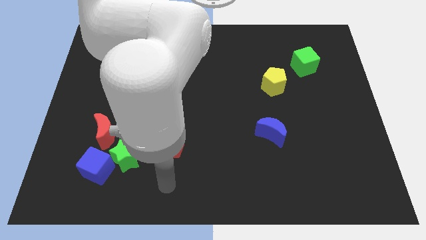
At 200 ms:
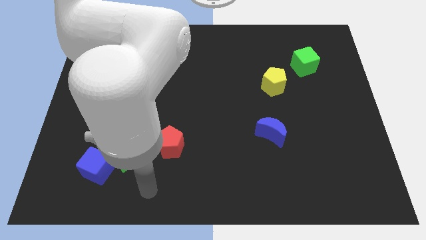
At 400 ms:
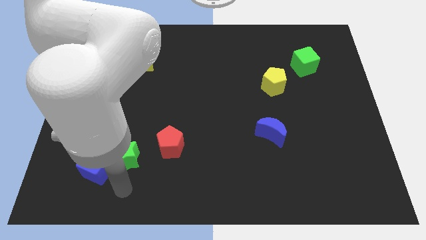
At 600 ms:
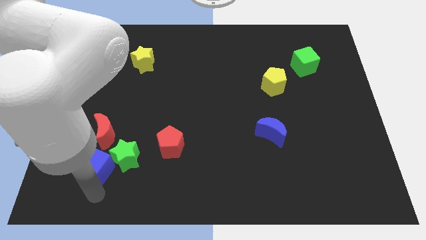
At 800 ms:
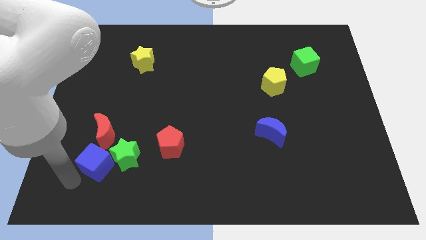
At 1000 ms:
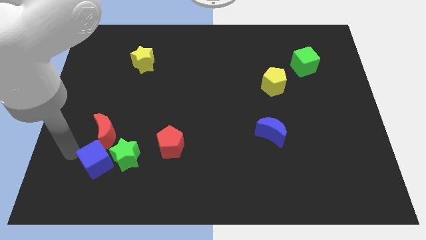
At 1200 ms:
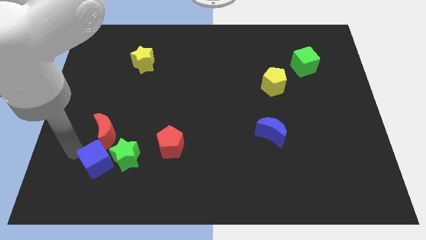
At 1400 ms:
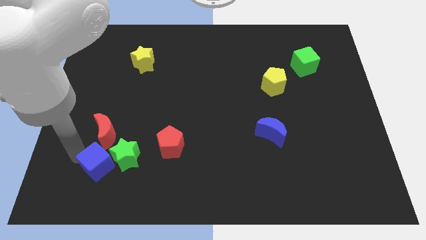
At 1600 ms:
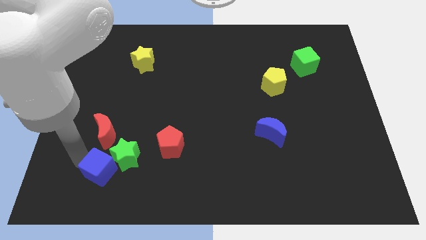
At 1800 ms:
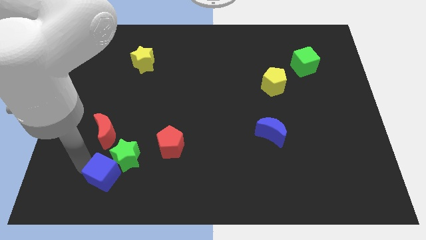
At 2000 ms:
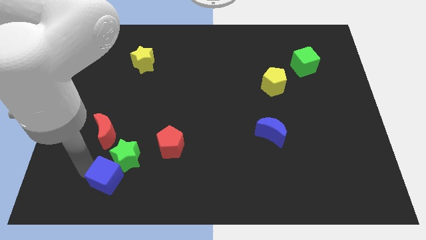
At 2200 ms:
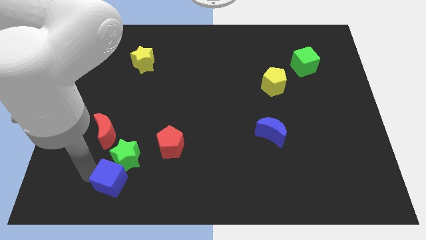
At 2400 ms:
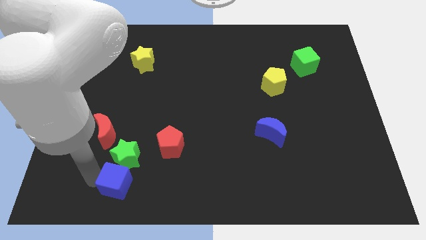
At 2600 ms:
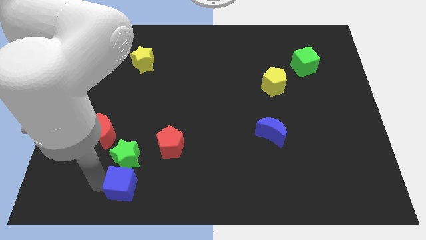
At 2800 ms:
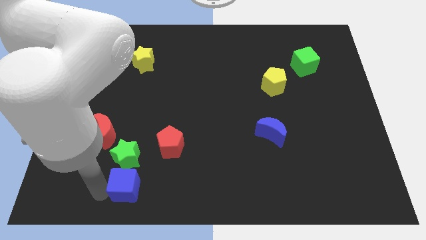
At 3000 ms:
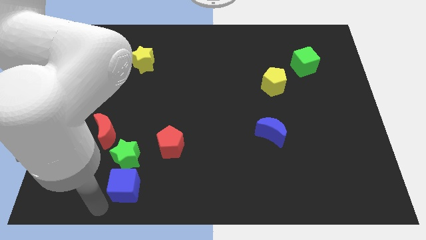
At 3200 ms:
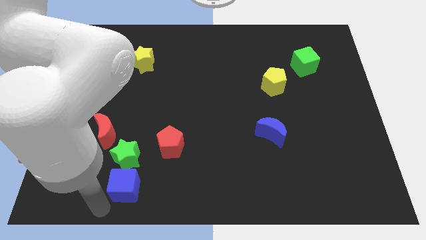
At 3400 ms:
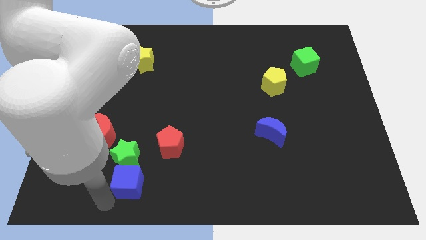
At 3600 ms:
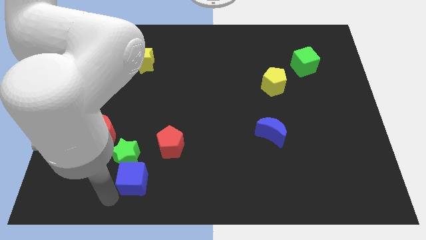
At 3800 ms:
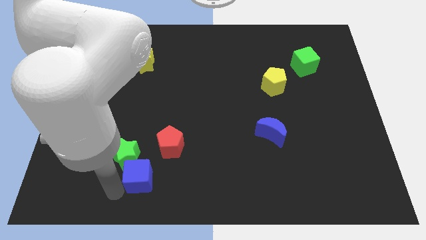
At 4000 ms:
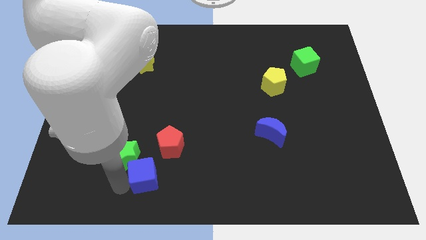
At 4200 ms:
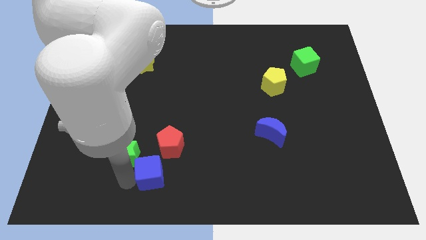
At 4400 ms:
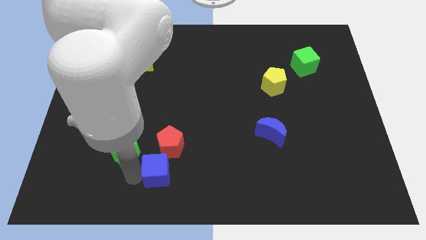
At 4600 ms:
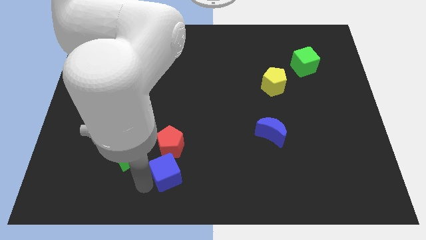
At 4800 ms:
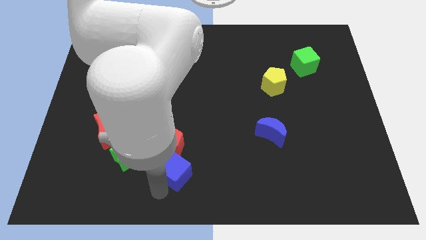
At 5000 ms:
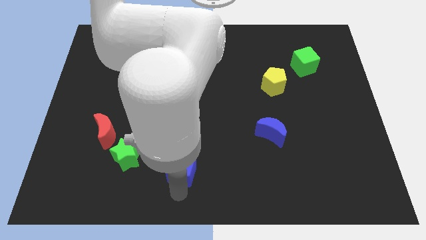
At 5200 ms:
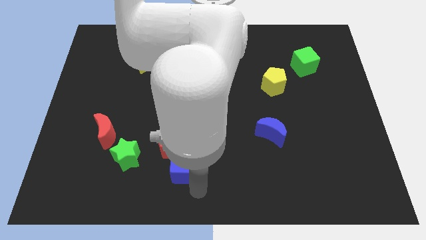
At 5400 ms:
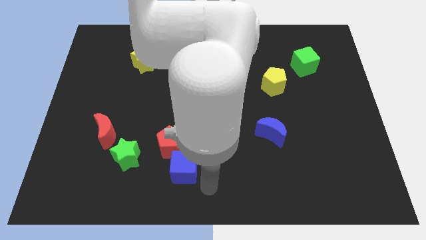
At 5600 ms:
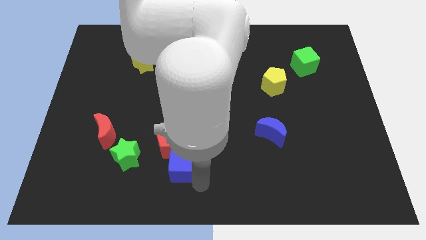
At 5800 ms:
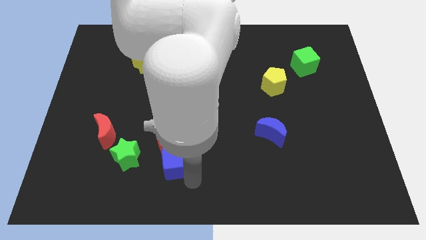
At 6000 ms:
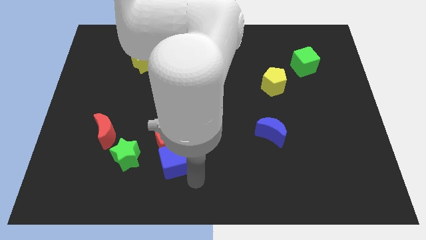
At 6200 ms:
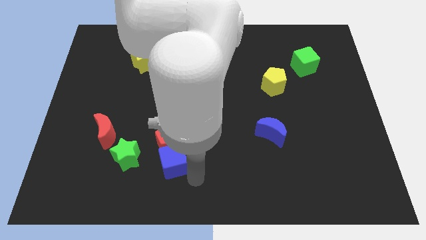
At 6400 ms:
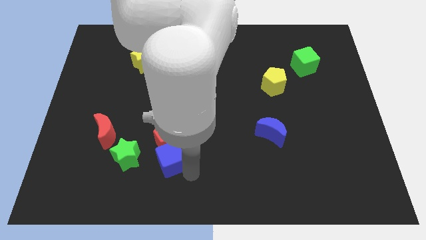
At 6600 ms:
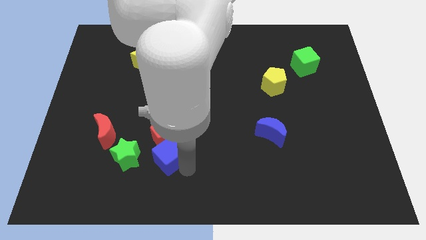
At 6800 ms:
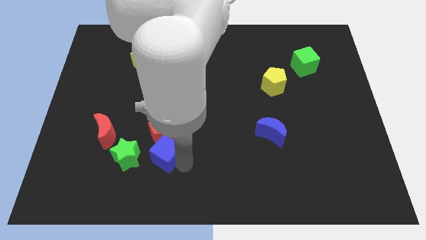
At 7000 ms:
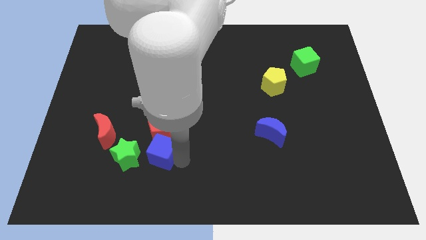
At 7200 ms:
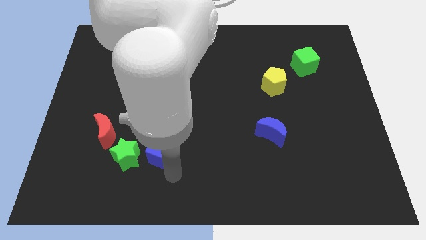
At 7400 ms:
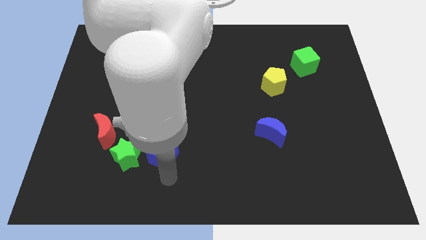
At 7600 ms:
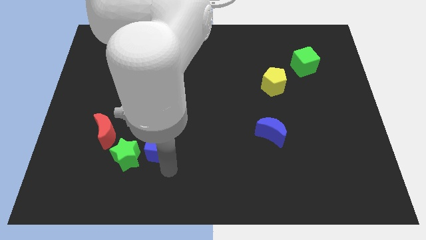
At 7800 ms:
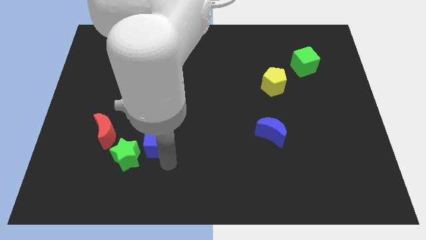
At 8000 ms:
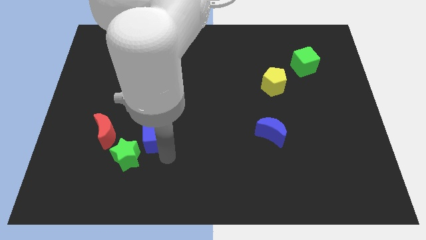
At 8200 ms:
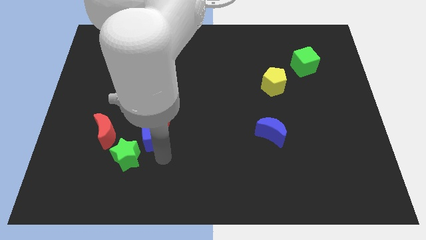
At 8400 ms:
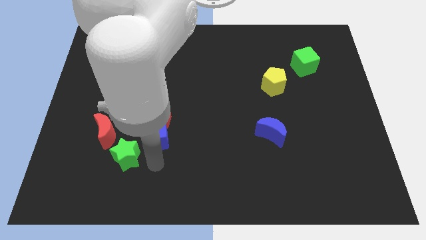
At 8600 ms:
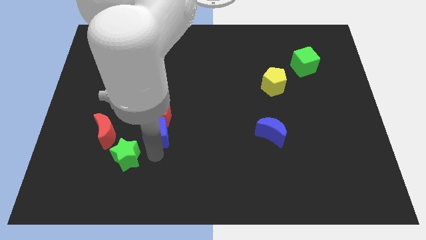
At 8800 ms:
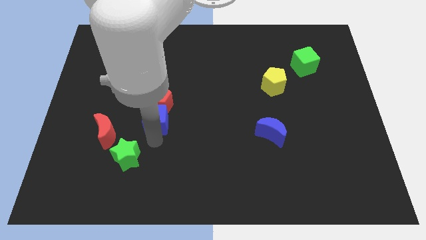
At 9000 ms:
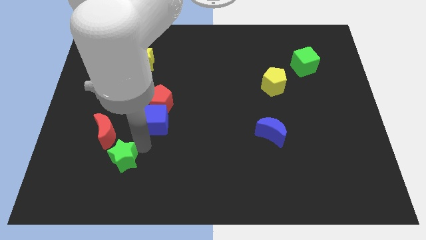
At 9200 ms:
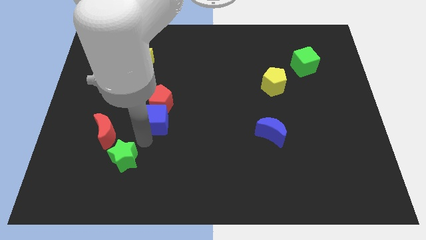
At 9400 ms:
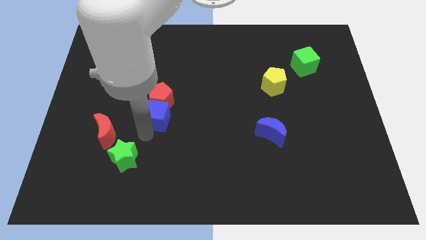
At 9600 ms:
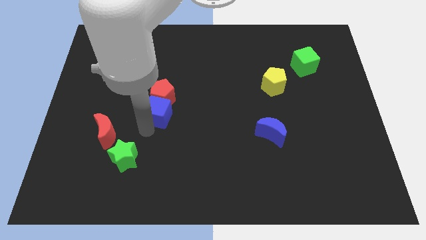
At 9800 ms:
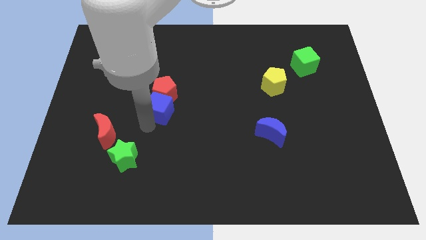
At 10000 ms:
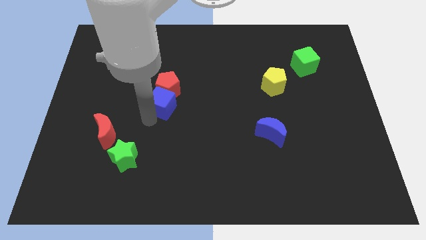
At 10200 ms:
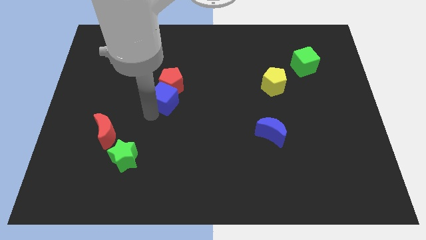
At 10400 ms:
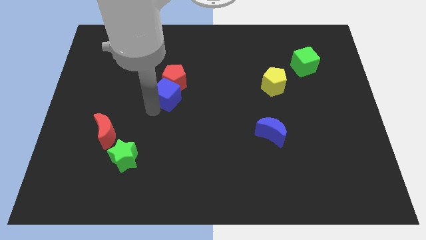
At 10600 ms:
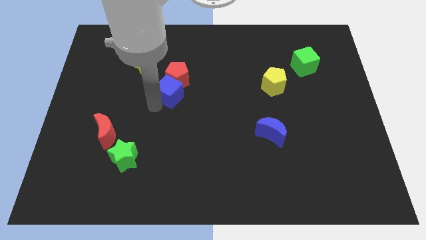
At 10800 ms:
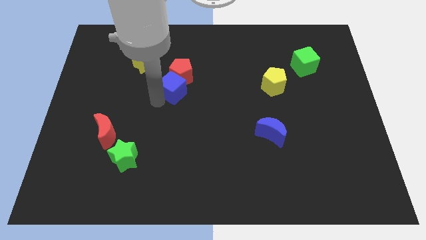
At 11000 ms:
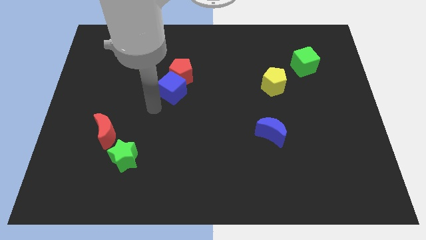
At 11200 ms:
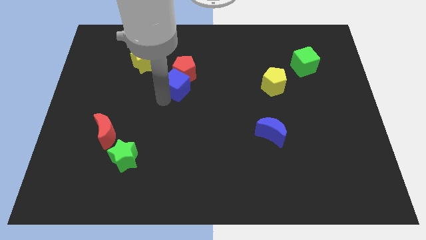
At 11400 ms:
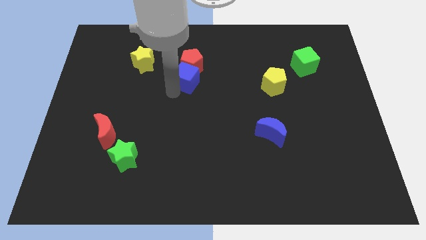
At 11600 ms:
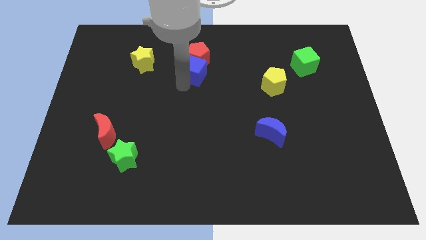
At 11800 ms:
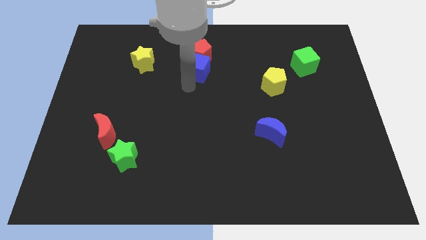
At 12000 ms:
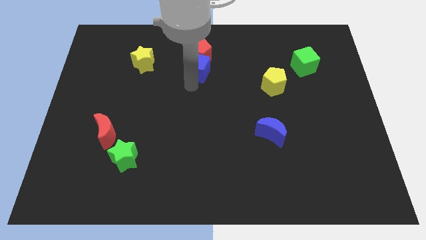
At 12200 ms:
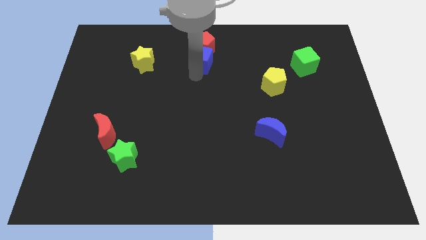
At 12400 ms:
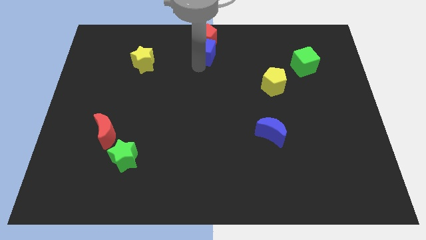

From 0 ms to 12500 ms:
slide the blue cube to the towards your base

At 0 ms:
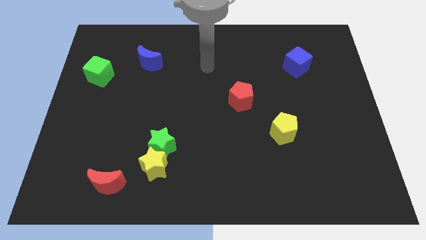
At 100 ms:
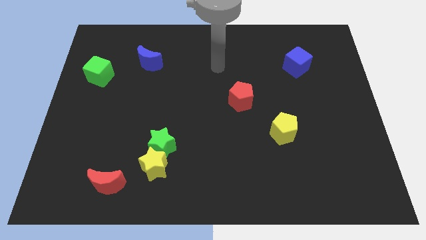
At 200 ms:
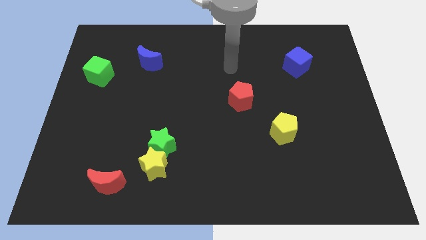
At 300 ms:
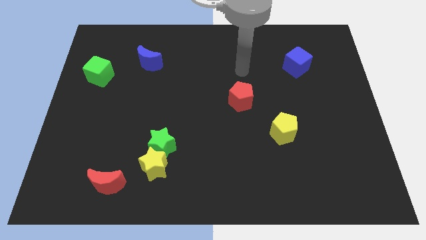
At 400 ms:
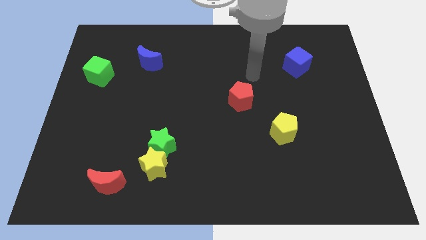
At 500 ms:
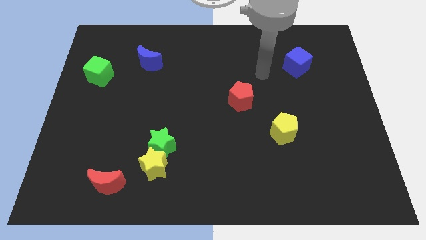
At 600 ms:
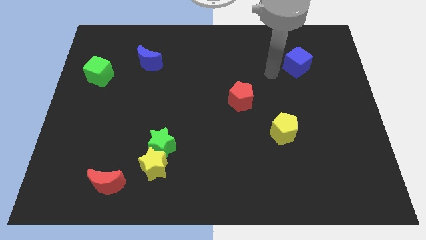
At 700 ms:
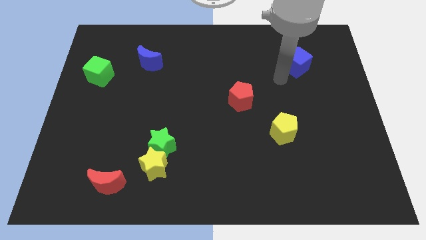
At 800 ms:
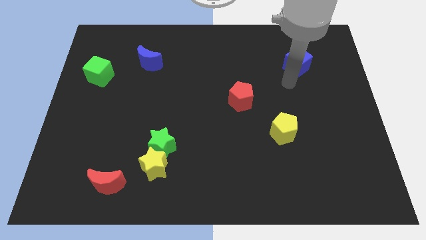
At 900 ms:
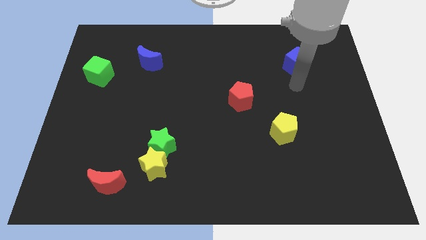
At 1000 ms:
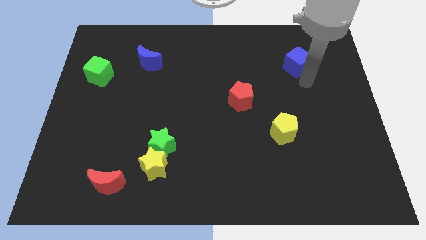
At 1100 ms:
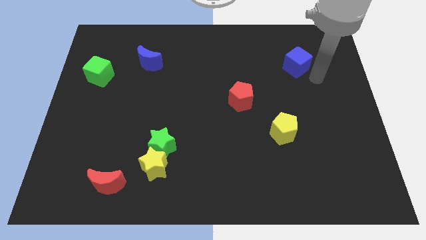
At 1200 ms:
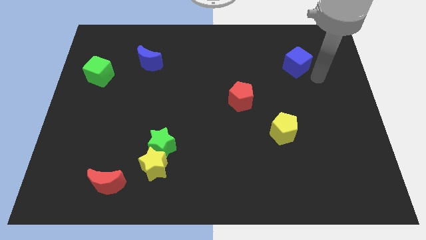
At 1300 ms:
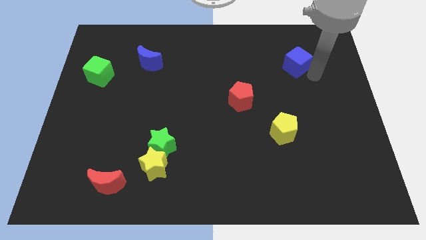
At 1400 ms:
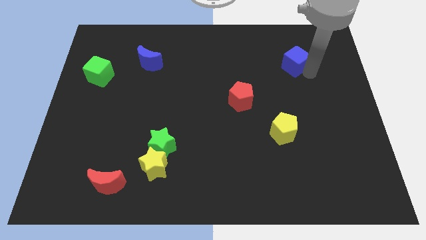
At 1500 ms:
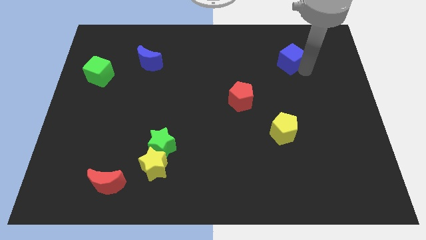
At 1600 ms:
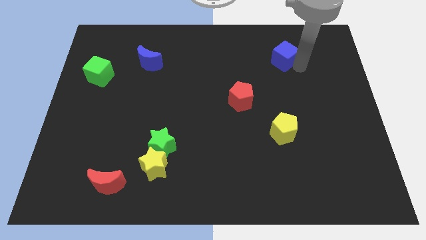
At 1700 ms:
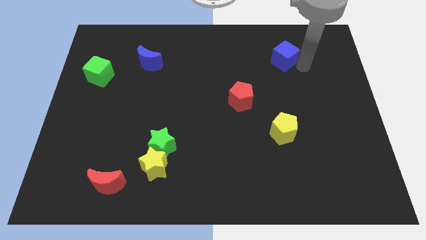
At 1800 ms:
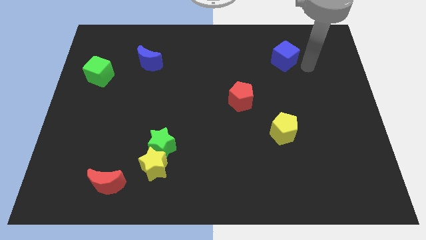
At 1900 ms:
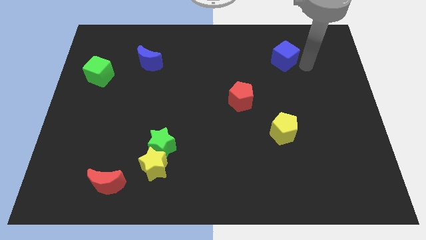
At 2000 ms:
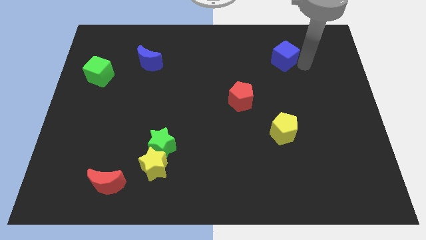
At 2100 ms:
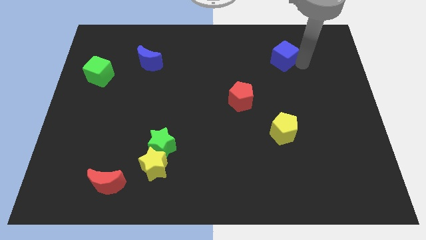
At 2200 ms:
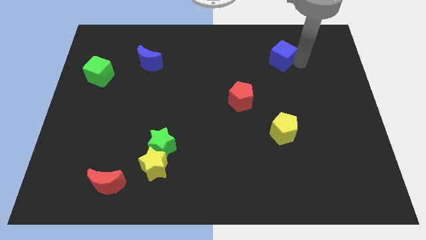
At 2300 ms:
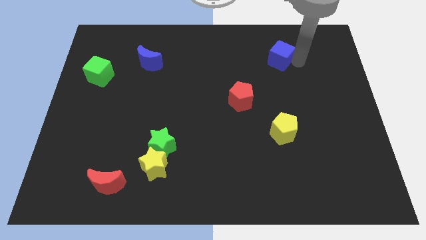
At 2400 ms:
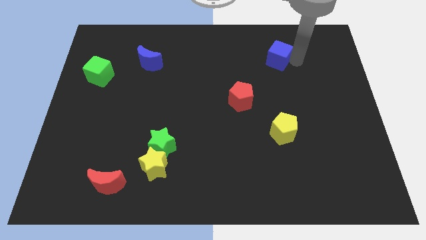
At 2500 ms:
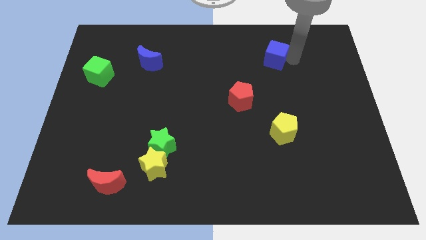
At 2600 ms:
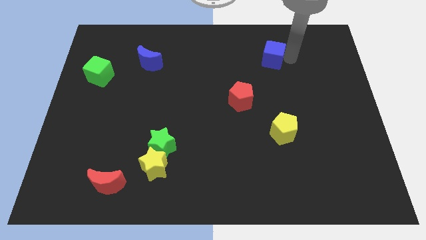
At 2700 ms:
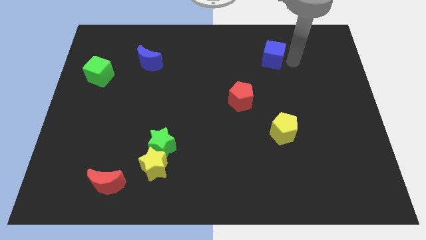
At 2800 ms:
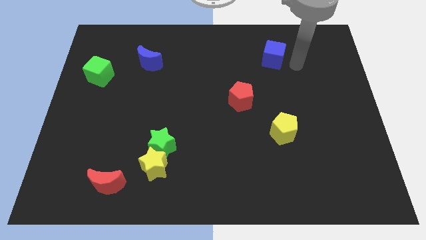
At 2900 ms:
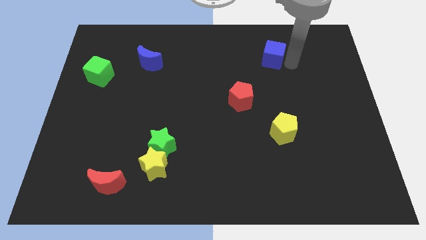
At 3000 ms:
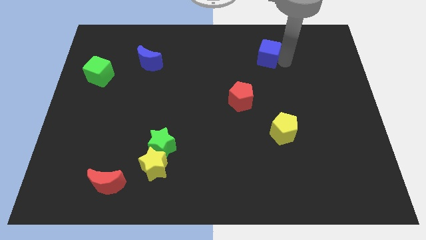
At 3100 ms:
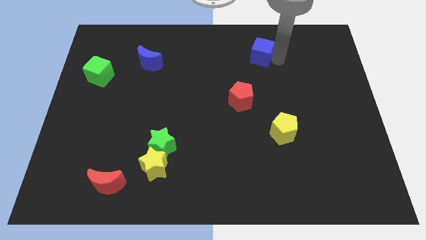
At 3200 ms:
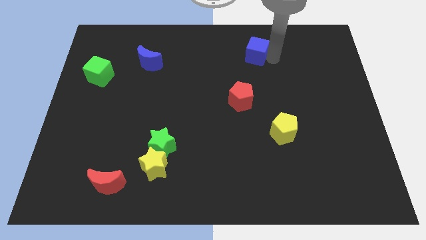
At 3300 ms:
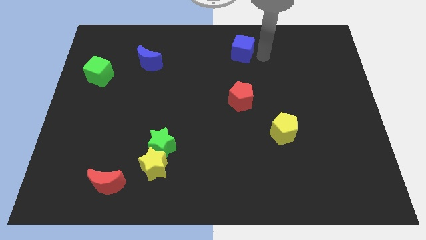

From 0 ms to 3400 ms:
move the blue cube to the towards your base
